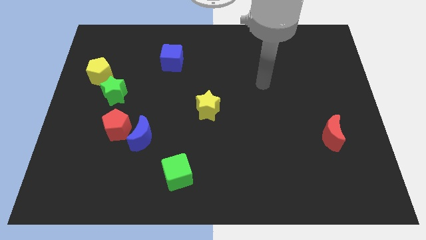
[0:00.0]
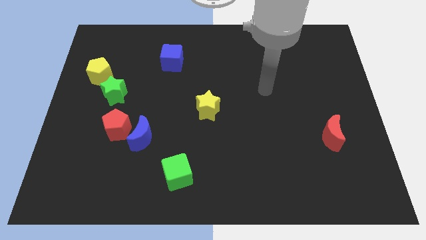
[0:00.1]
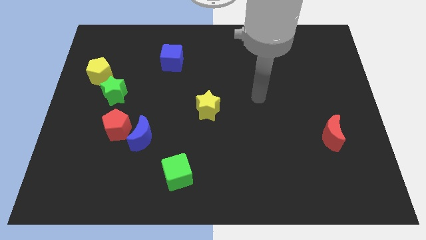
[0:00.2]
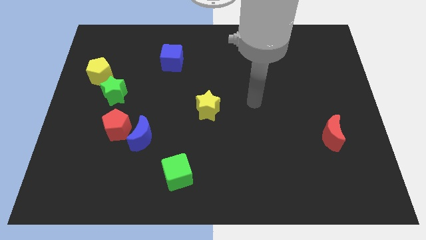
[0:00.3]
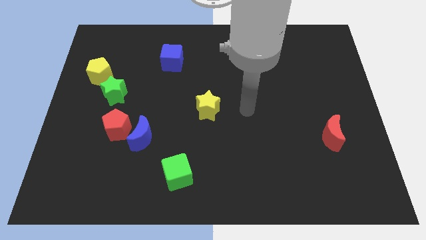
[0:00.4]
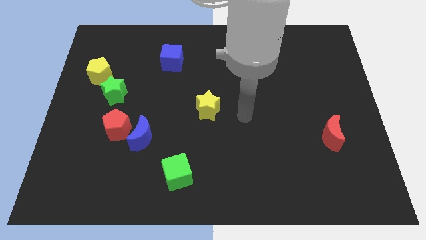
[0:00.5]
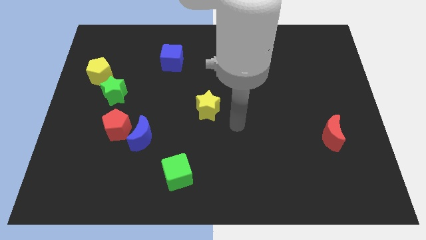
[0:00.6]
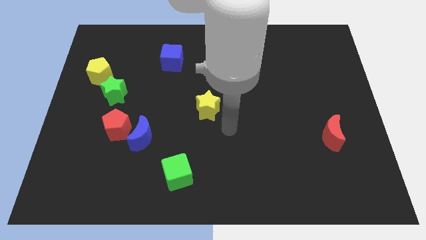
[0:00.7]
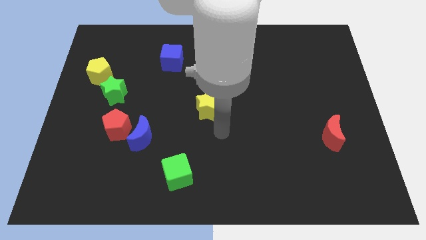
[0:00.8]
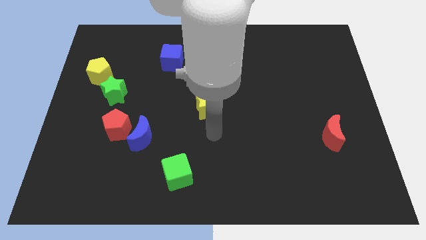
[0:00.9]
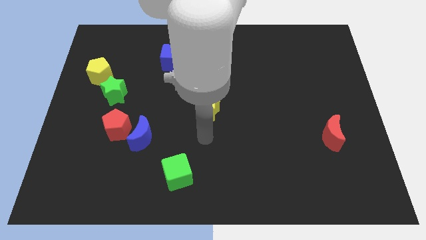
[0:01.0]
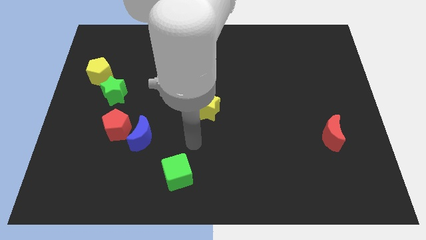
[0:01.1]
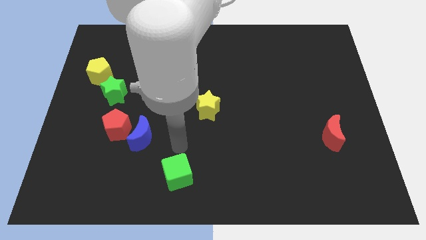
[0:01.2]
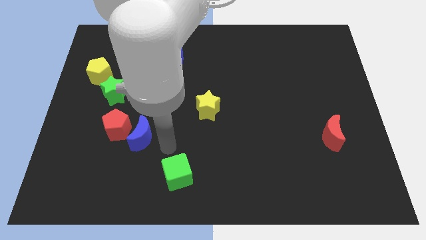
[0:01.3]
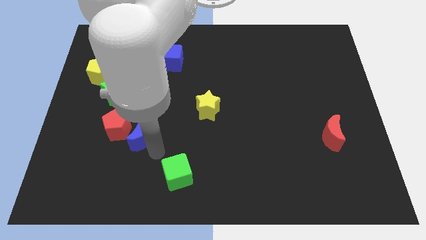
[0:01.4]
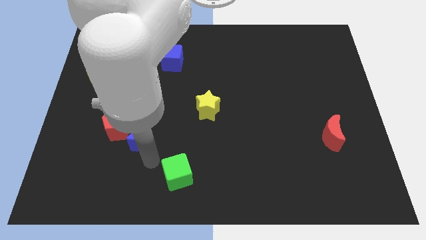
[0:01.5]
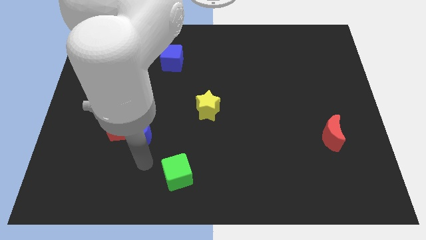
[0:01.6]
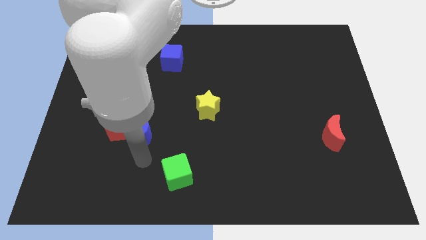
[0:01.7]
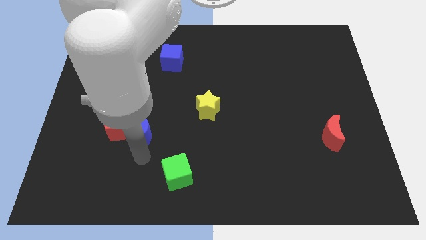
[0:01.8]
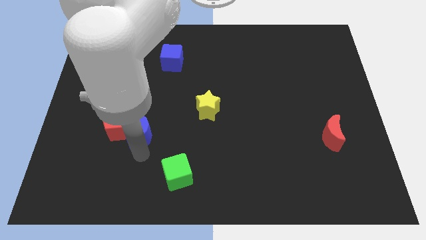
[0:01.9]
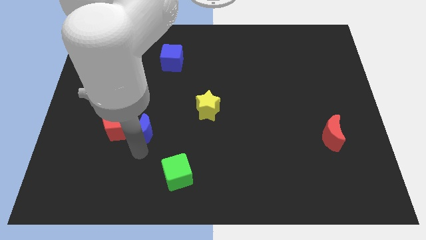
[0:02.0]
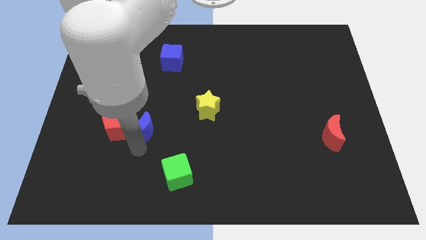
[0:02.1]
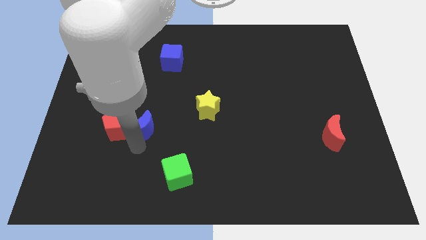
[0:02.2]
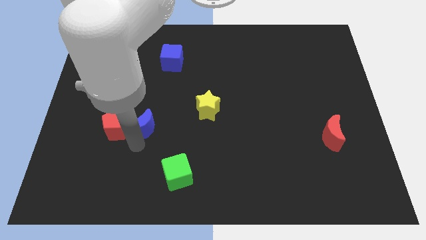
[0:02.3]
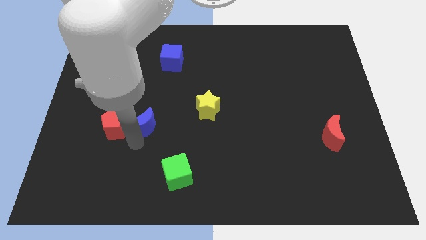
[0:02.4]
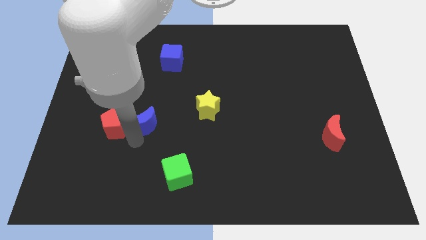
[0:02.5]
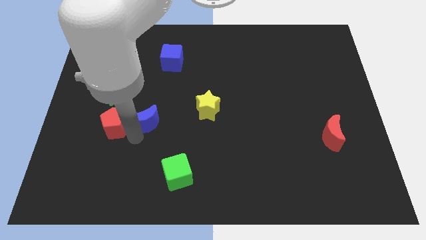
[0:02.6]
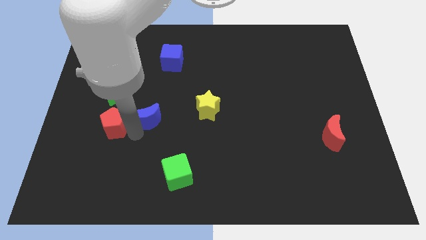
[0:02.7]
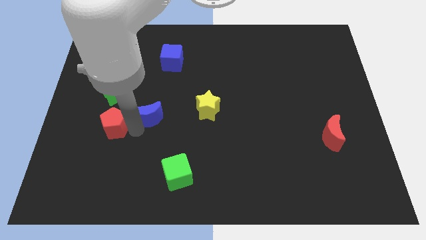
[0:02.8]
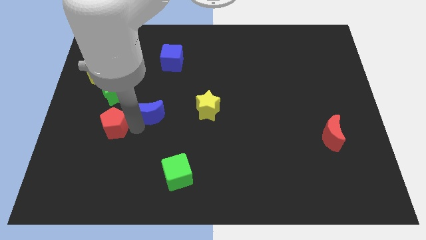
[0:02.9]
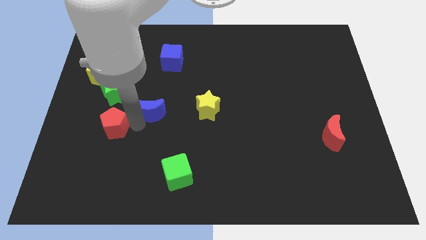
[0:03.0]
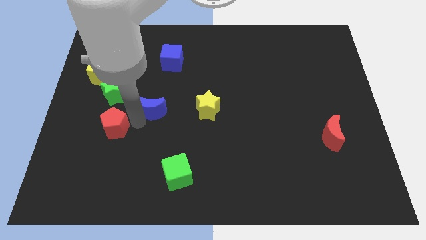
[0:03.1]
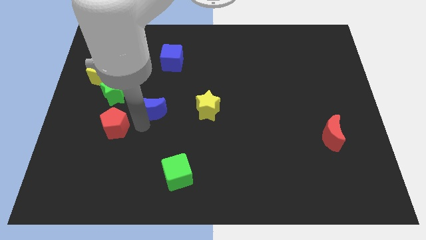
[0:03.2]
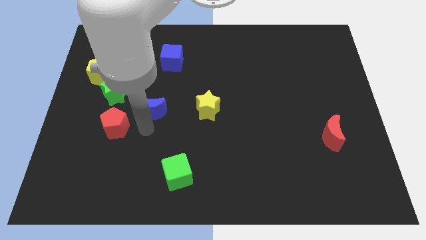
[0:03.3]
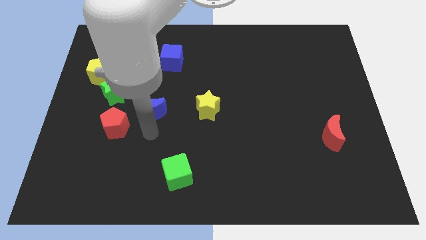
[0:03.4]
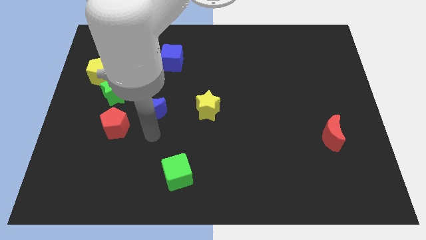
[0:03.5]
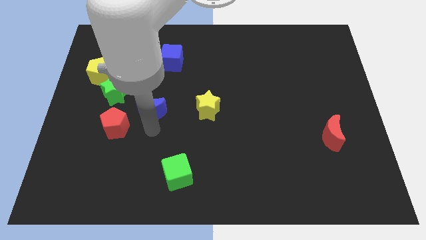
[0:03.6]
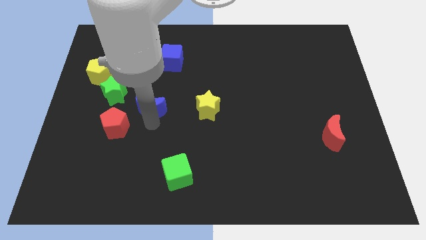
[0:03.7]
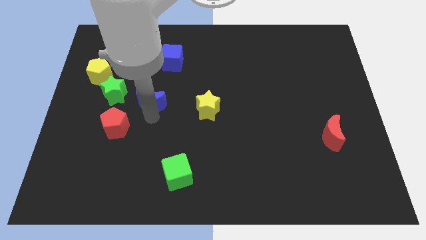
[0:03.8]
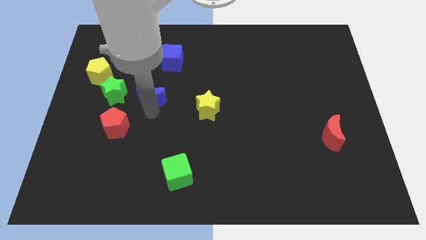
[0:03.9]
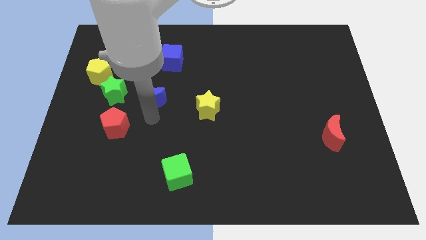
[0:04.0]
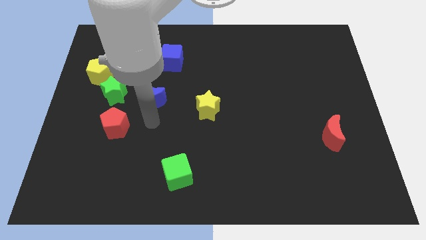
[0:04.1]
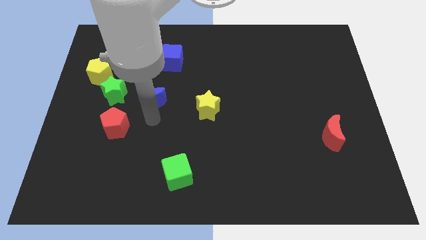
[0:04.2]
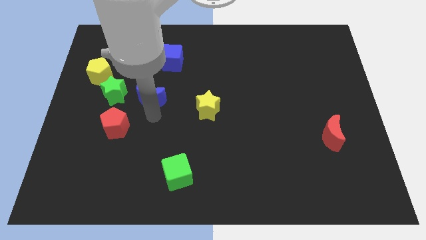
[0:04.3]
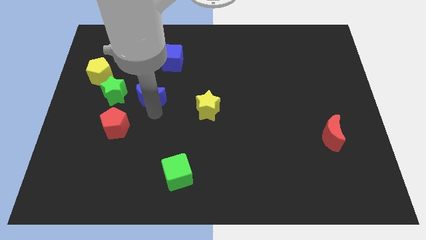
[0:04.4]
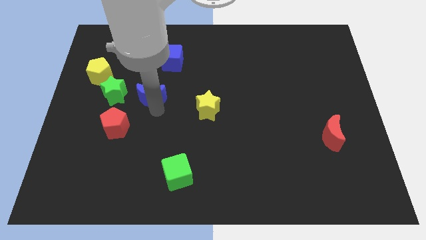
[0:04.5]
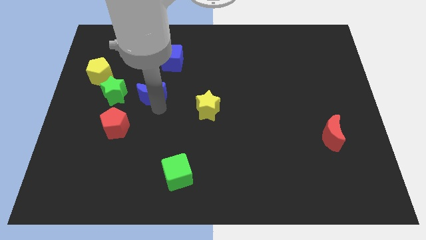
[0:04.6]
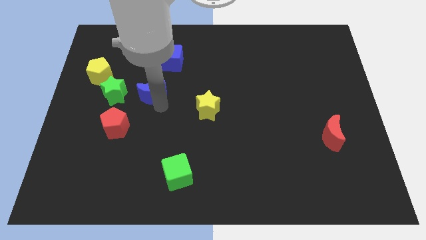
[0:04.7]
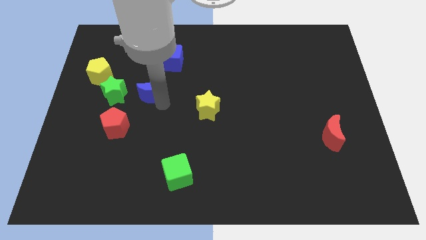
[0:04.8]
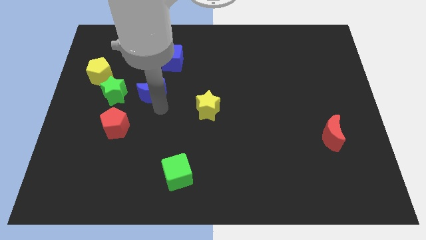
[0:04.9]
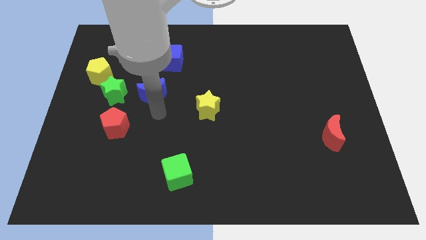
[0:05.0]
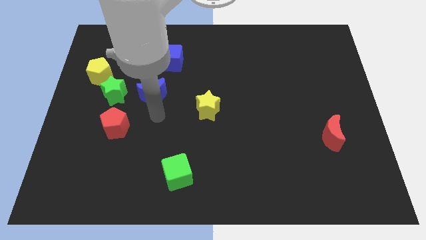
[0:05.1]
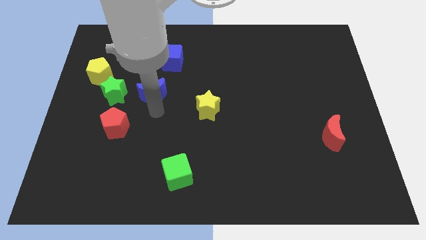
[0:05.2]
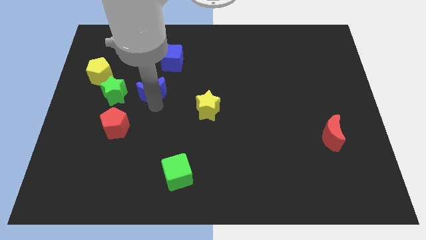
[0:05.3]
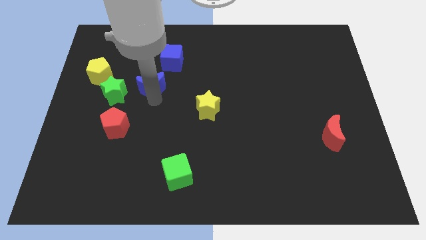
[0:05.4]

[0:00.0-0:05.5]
push the blue moon to the bottom left of the blue cube

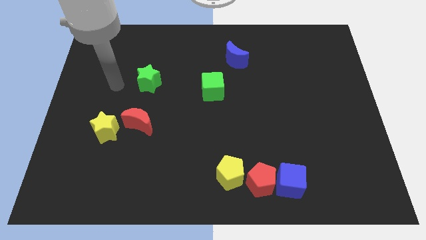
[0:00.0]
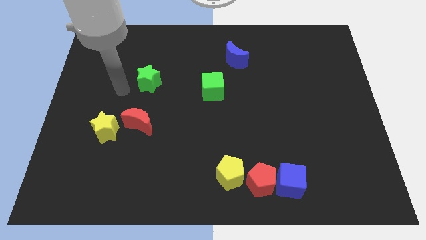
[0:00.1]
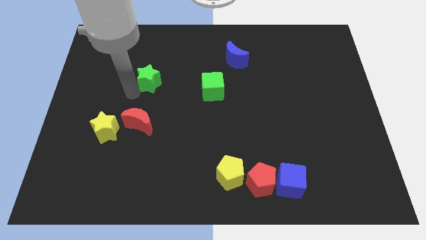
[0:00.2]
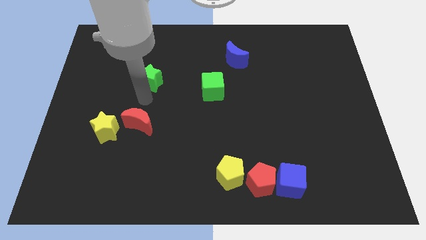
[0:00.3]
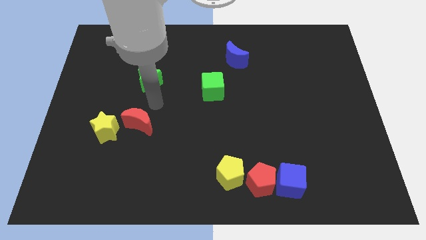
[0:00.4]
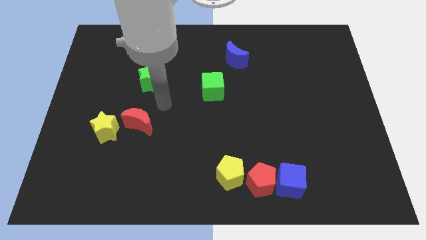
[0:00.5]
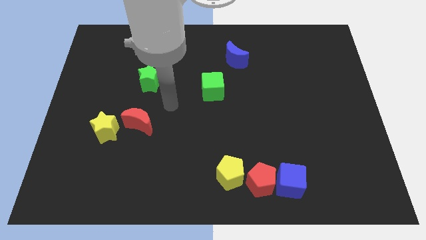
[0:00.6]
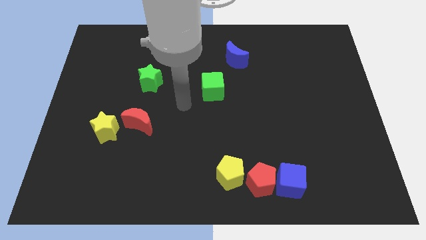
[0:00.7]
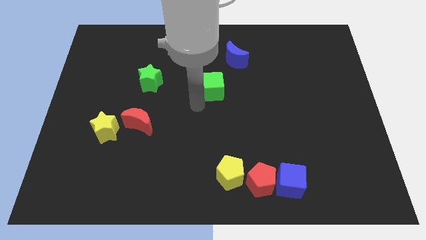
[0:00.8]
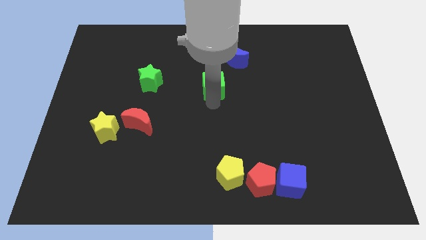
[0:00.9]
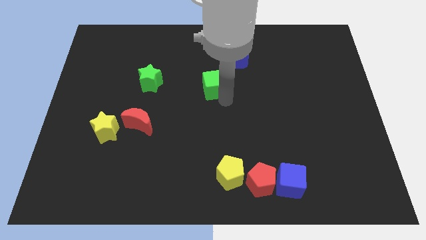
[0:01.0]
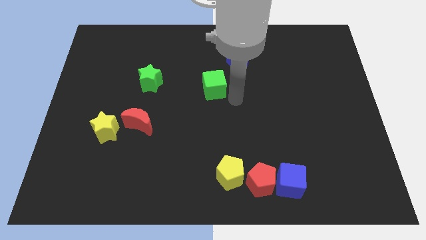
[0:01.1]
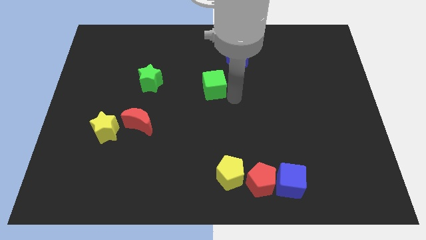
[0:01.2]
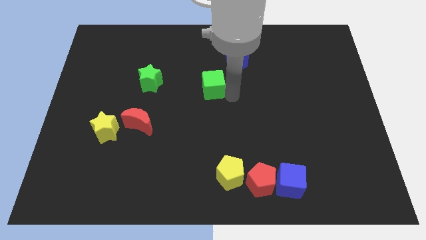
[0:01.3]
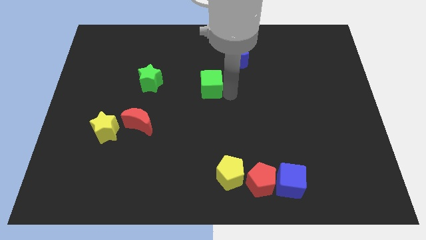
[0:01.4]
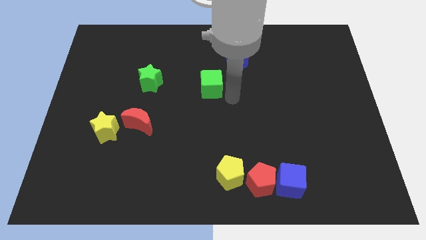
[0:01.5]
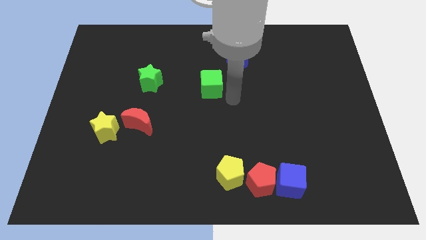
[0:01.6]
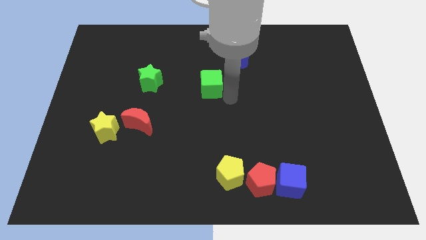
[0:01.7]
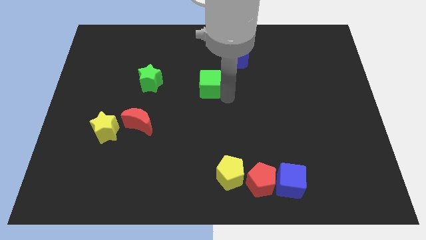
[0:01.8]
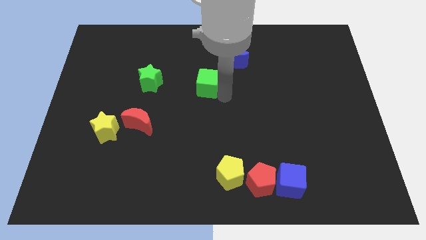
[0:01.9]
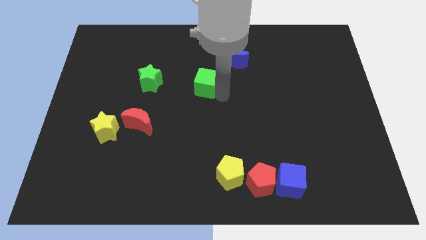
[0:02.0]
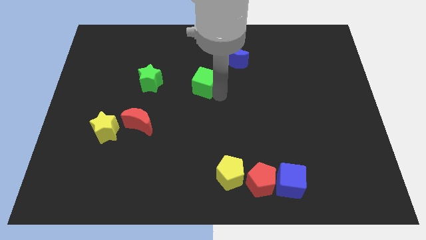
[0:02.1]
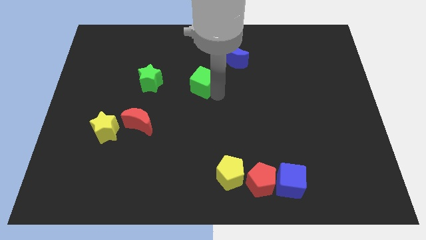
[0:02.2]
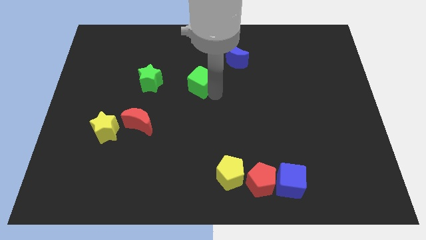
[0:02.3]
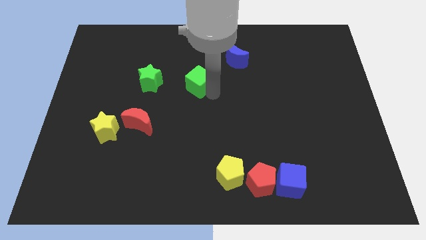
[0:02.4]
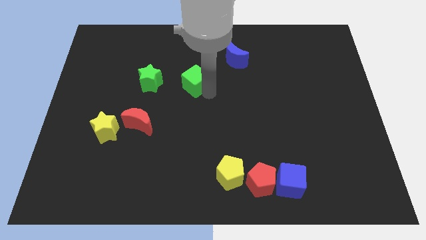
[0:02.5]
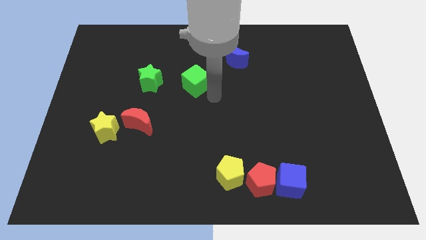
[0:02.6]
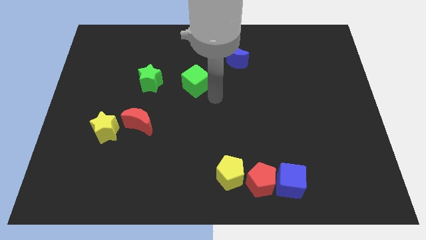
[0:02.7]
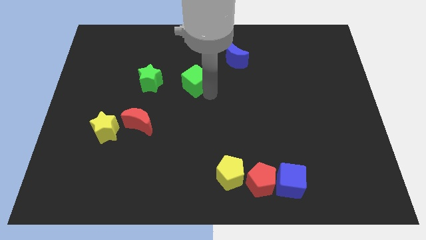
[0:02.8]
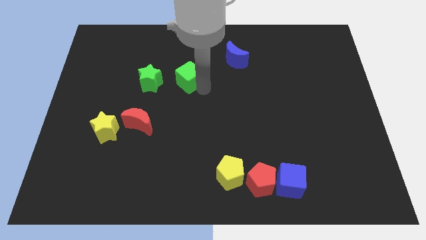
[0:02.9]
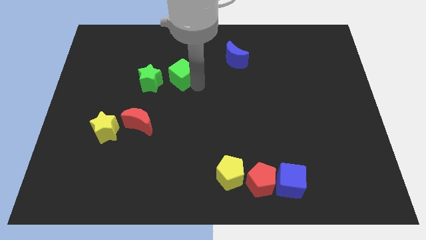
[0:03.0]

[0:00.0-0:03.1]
slide the green cube to the top right side of the green star
